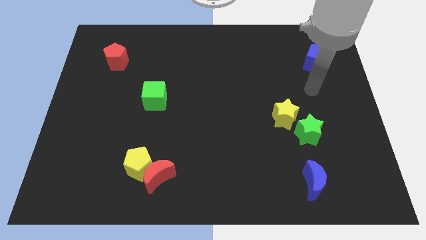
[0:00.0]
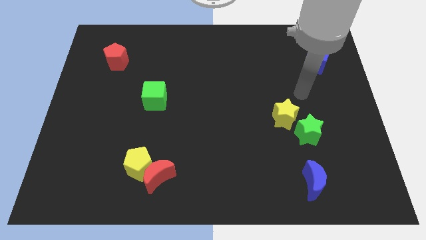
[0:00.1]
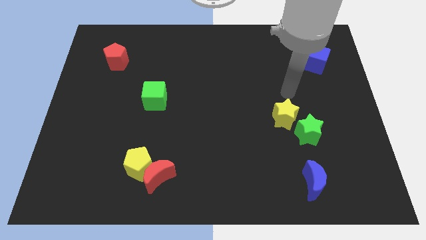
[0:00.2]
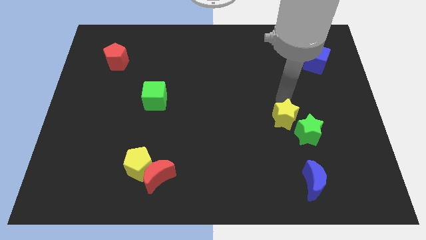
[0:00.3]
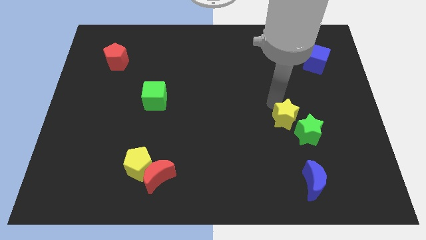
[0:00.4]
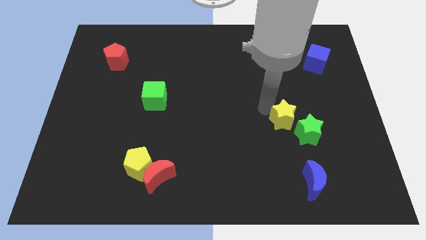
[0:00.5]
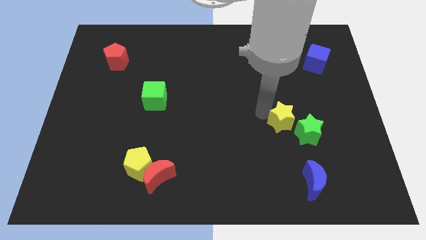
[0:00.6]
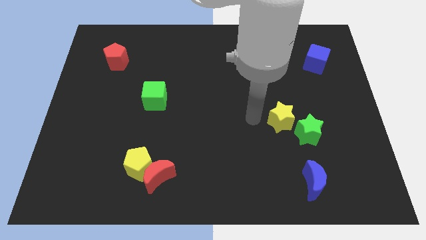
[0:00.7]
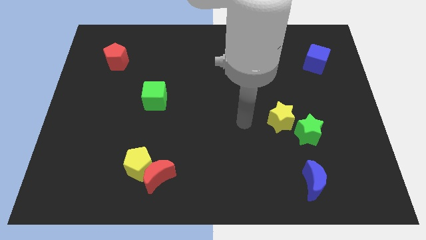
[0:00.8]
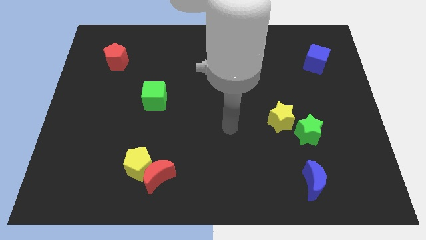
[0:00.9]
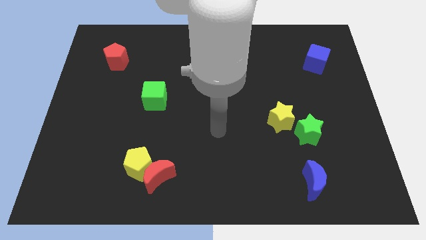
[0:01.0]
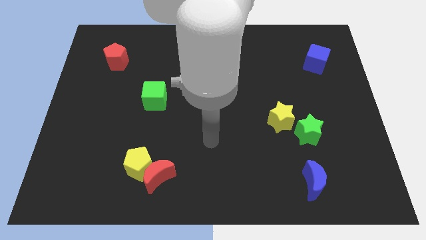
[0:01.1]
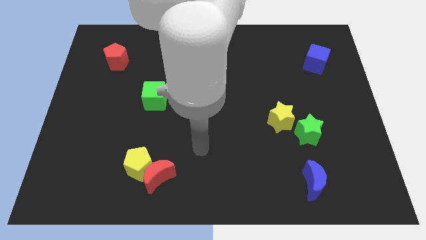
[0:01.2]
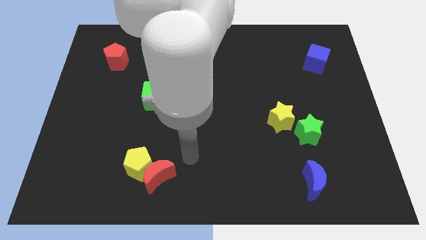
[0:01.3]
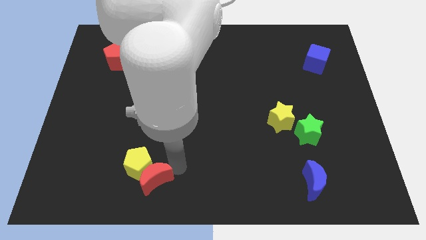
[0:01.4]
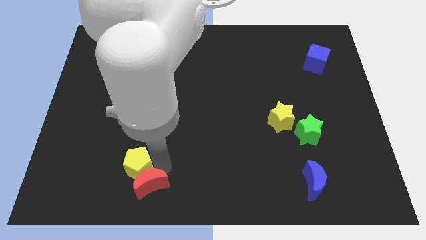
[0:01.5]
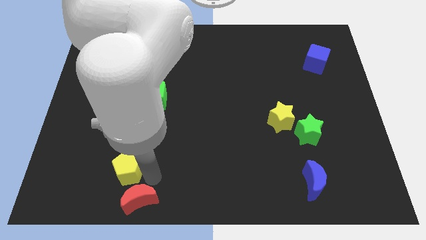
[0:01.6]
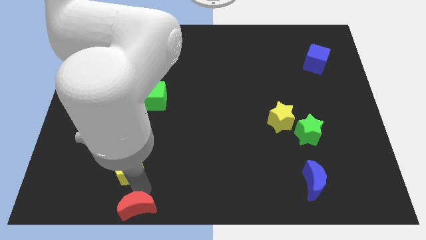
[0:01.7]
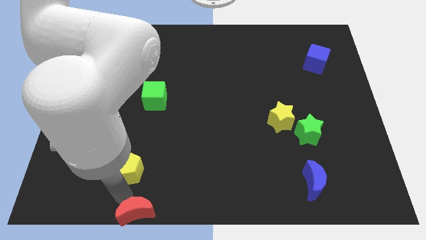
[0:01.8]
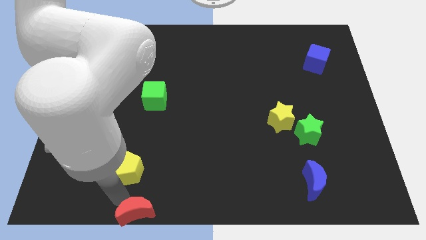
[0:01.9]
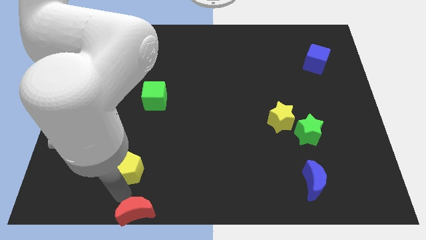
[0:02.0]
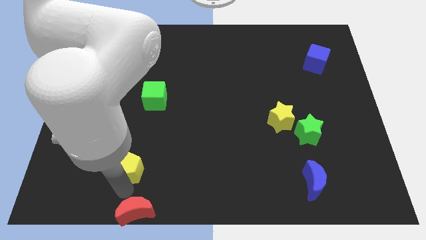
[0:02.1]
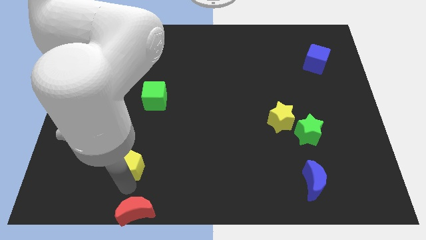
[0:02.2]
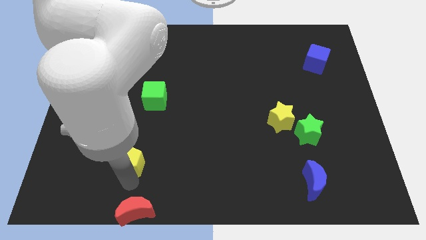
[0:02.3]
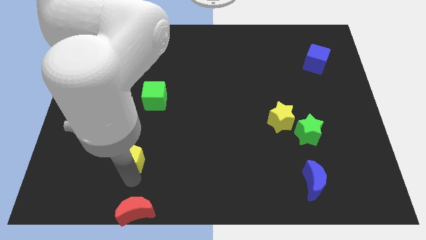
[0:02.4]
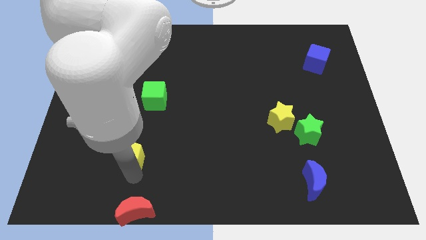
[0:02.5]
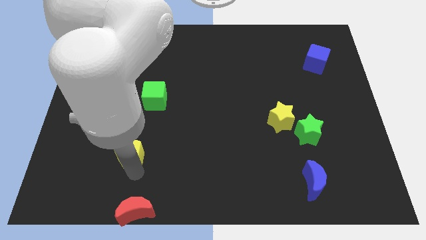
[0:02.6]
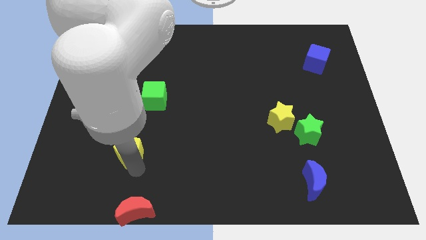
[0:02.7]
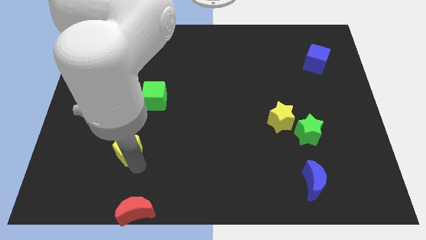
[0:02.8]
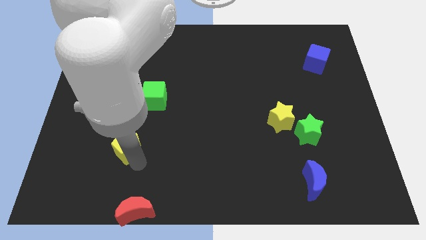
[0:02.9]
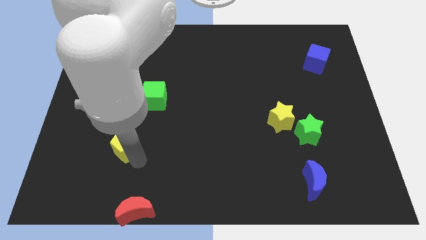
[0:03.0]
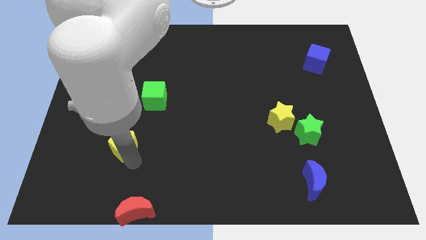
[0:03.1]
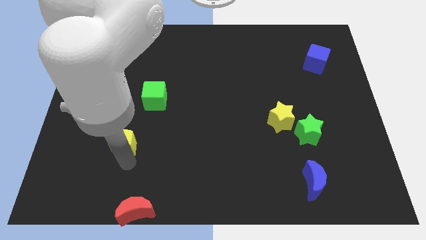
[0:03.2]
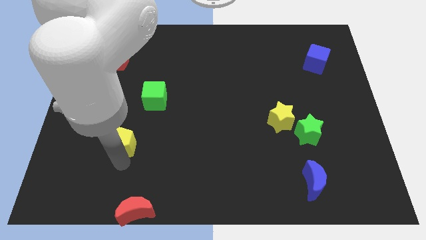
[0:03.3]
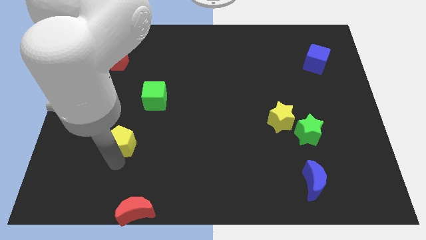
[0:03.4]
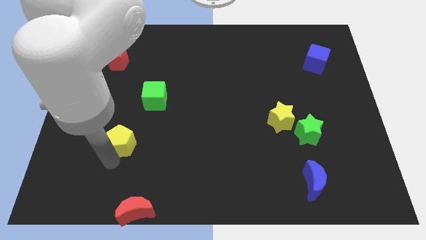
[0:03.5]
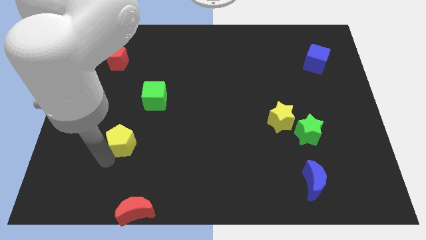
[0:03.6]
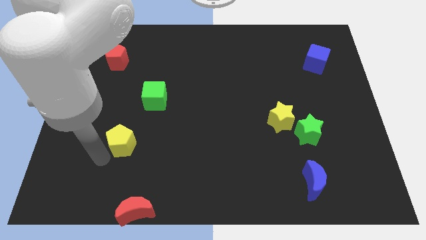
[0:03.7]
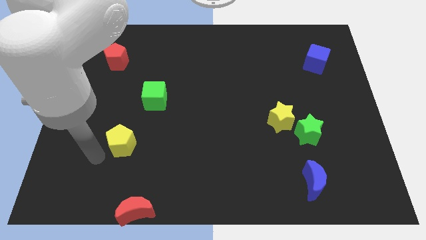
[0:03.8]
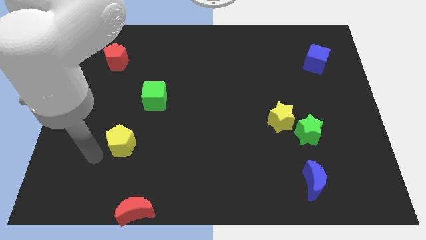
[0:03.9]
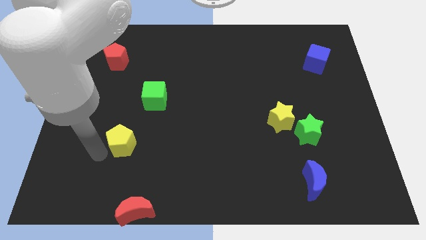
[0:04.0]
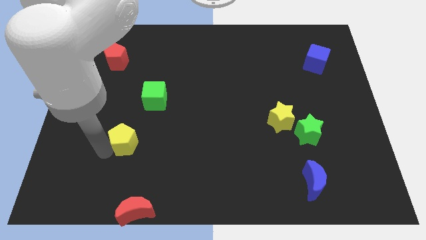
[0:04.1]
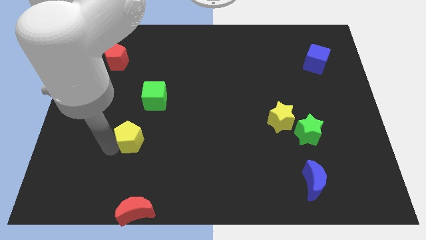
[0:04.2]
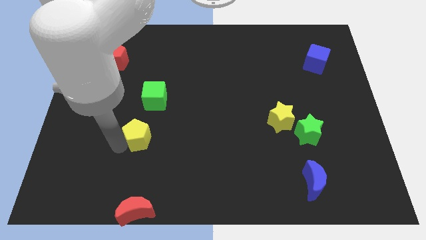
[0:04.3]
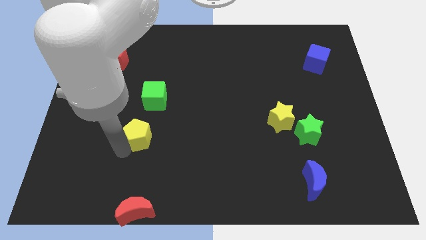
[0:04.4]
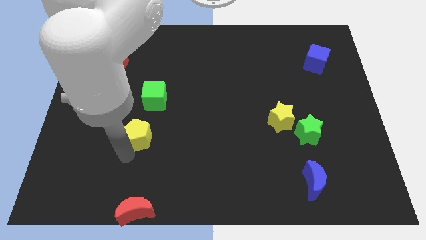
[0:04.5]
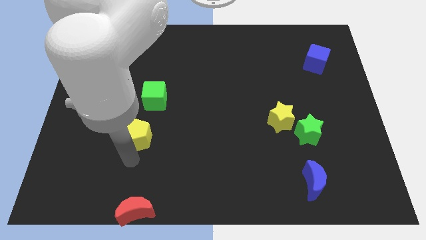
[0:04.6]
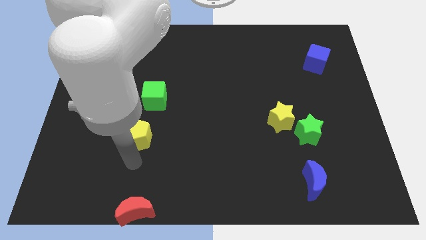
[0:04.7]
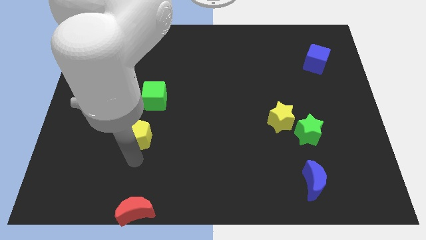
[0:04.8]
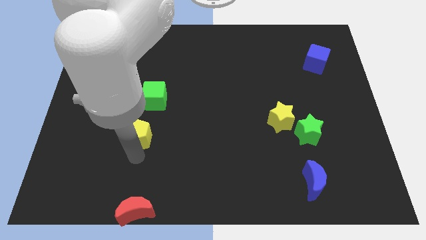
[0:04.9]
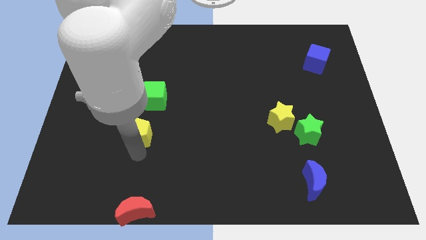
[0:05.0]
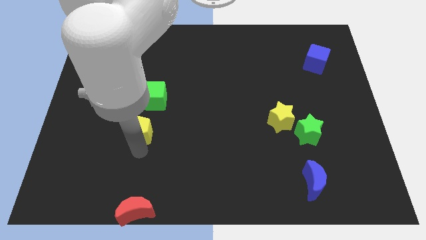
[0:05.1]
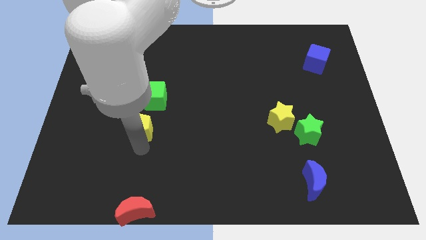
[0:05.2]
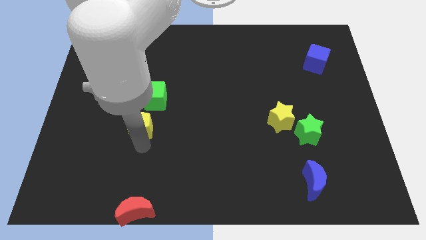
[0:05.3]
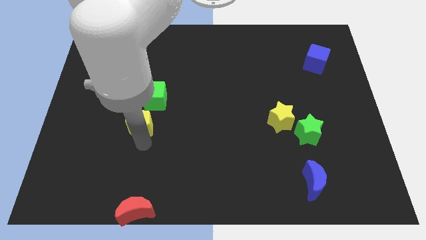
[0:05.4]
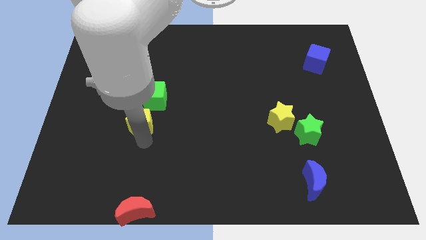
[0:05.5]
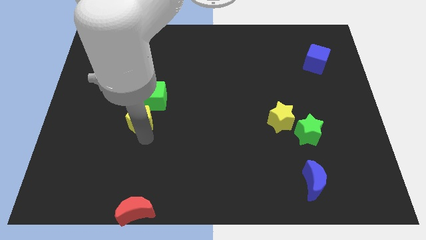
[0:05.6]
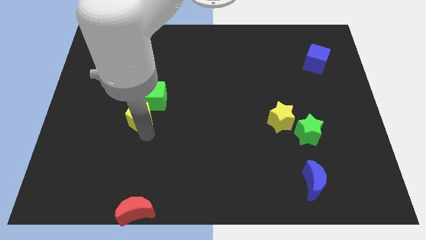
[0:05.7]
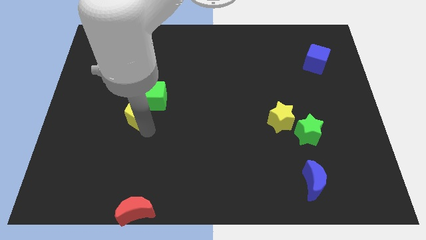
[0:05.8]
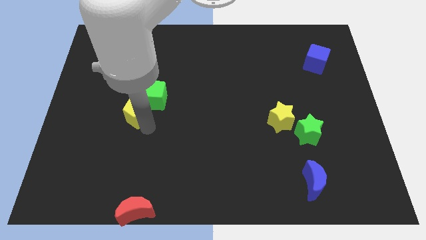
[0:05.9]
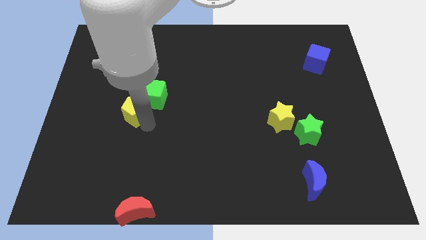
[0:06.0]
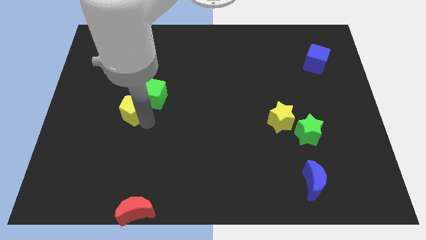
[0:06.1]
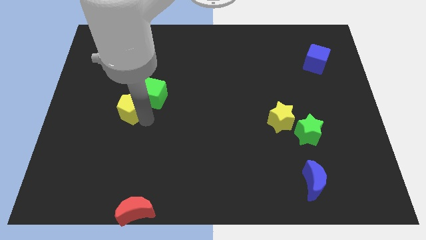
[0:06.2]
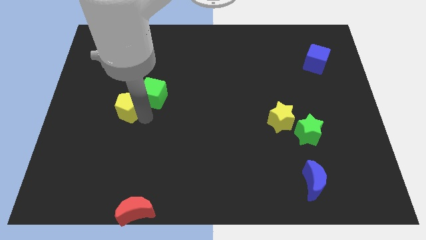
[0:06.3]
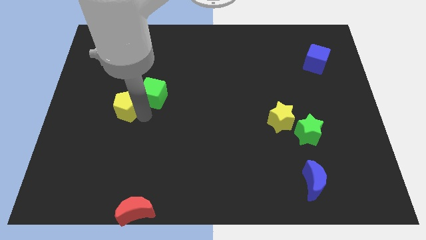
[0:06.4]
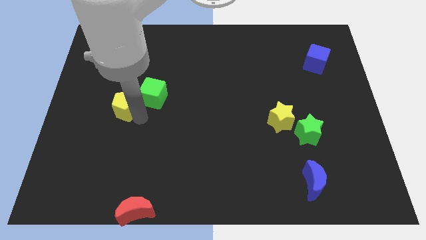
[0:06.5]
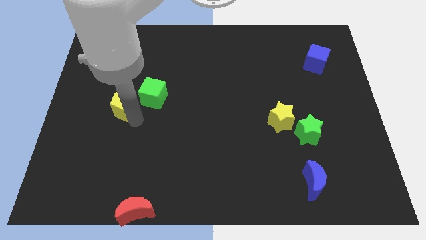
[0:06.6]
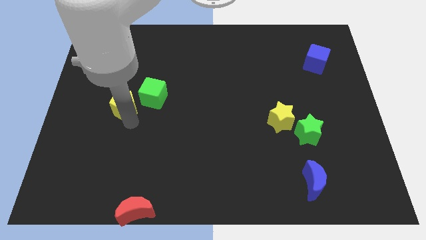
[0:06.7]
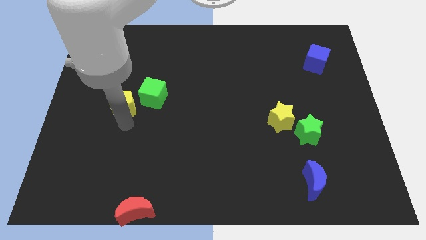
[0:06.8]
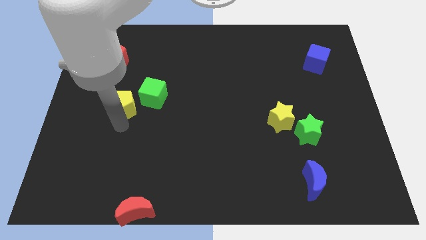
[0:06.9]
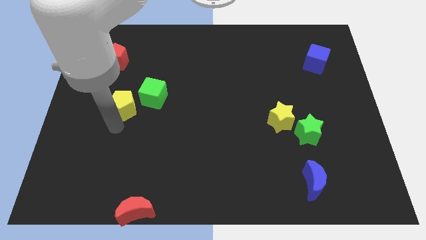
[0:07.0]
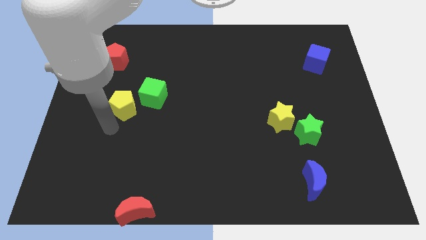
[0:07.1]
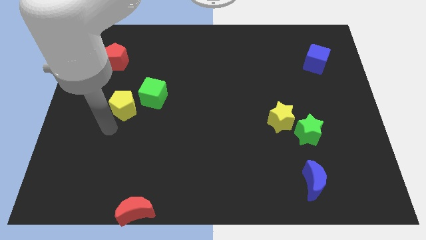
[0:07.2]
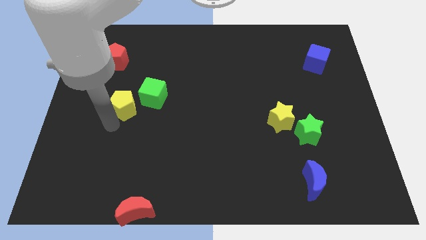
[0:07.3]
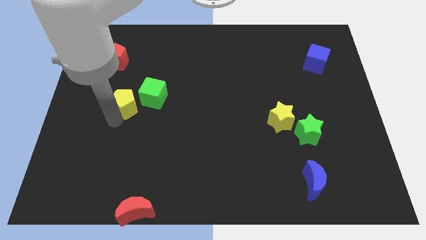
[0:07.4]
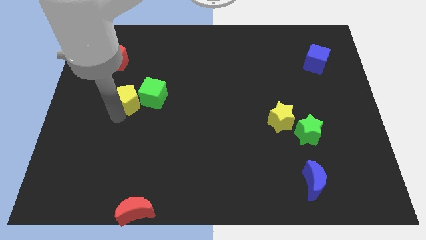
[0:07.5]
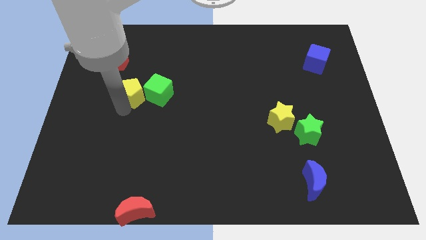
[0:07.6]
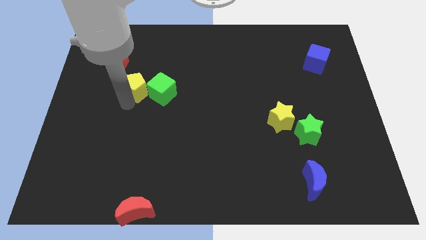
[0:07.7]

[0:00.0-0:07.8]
slide the yellow pentagon upwards
